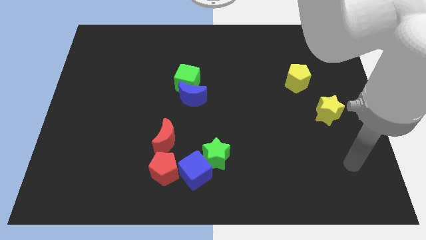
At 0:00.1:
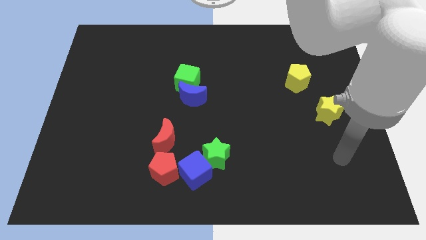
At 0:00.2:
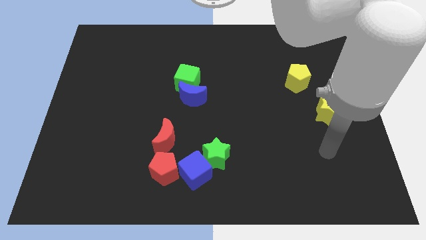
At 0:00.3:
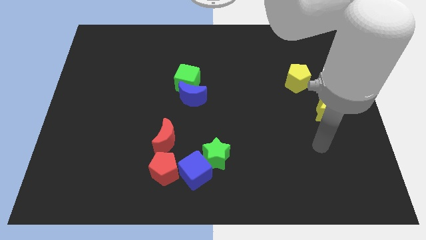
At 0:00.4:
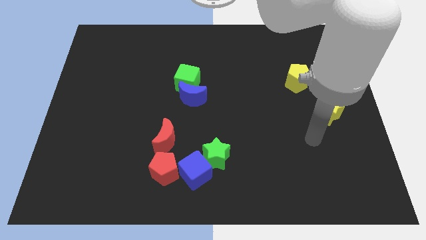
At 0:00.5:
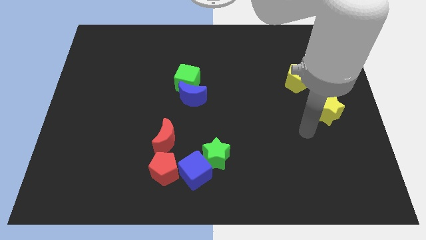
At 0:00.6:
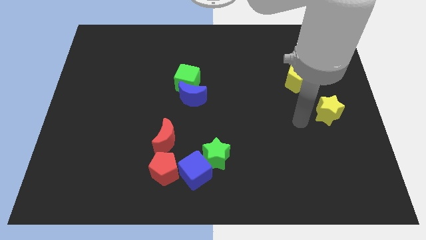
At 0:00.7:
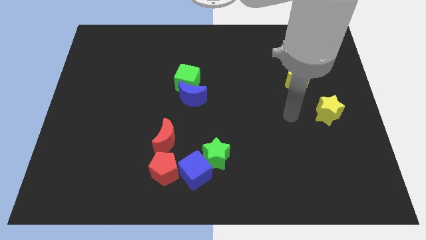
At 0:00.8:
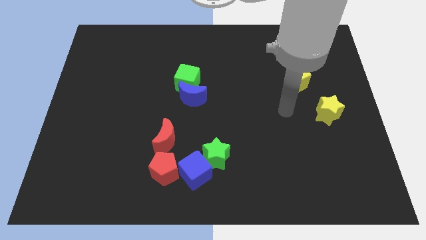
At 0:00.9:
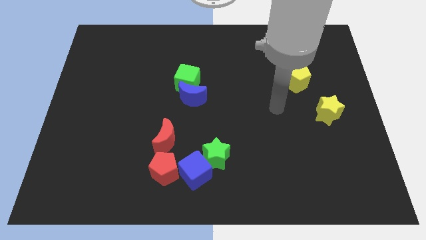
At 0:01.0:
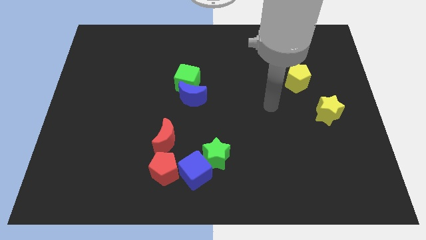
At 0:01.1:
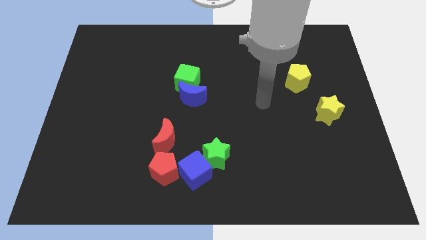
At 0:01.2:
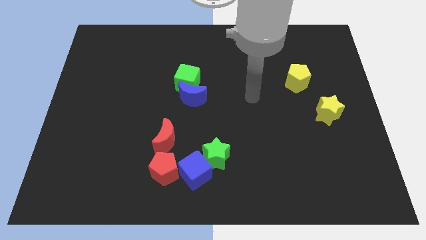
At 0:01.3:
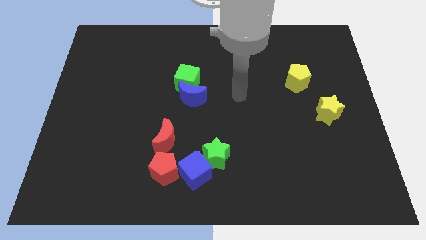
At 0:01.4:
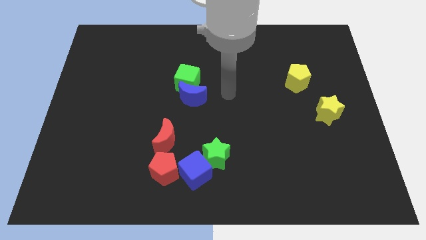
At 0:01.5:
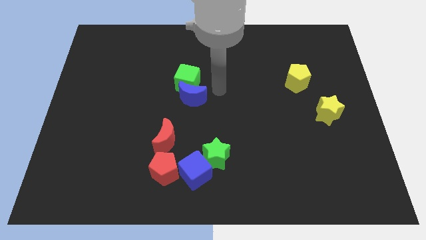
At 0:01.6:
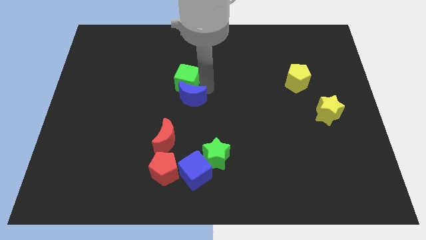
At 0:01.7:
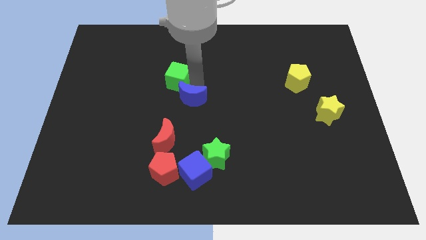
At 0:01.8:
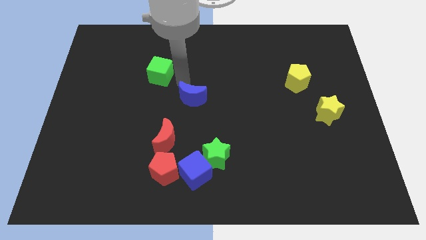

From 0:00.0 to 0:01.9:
pull the blue moon apart from the green cube

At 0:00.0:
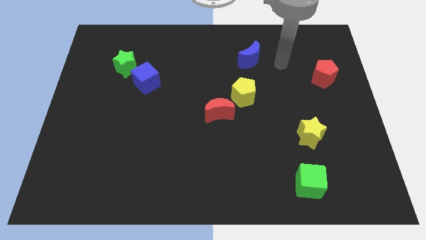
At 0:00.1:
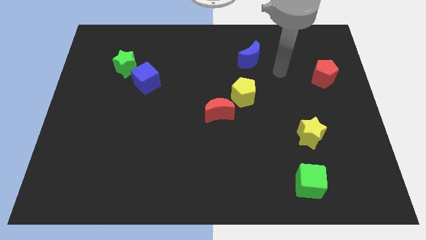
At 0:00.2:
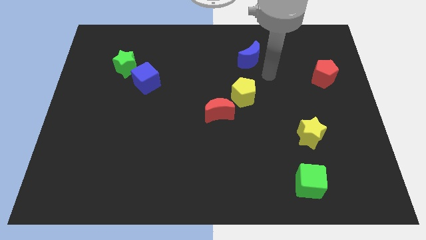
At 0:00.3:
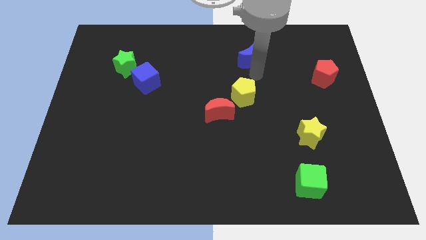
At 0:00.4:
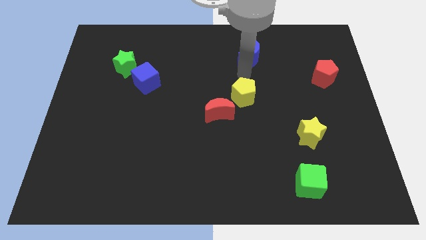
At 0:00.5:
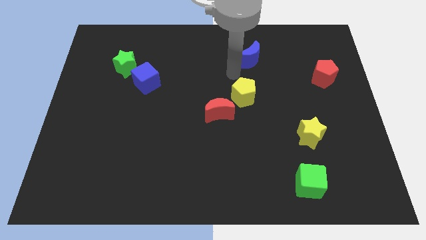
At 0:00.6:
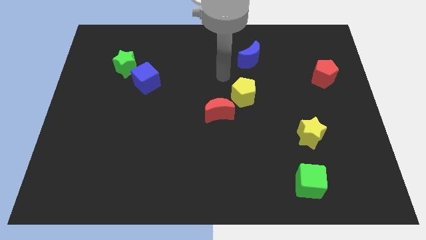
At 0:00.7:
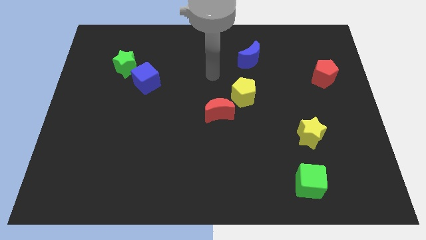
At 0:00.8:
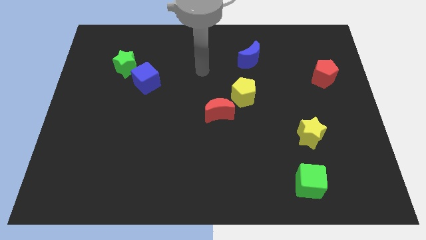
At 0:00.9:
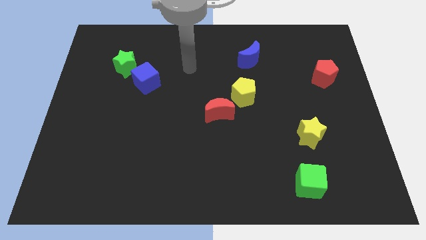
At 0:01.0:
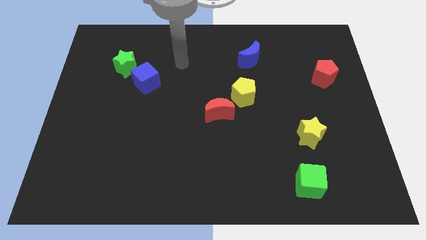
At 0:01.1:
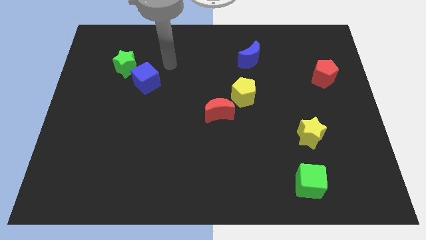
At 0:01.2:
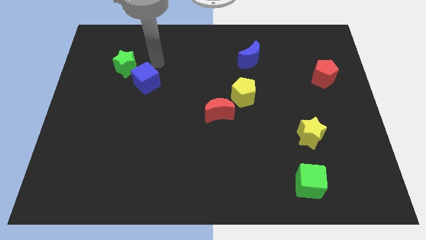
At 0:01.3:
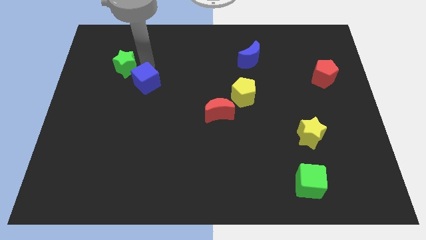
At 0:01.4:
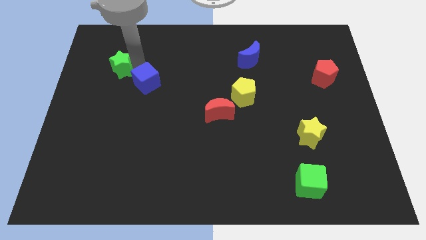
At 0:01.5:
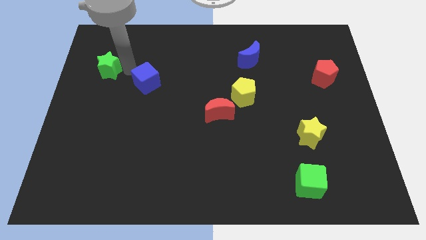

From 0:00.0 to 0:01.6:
move the blue cube away from the green star

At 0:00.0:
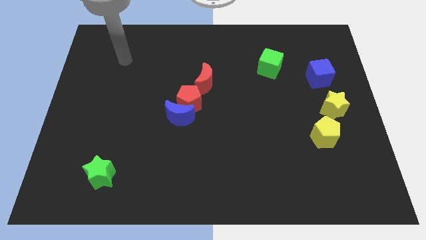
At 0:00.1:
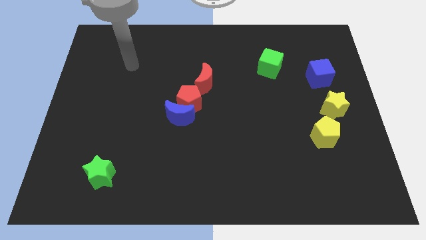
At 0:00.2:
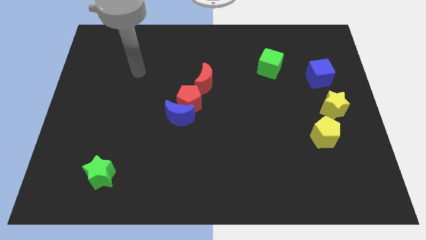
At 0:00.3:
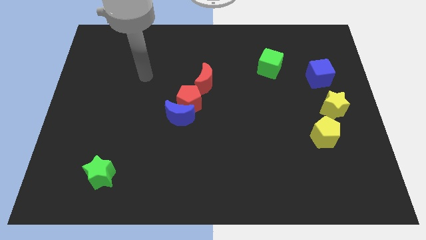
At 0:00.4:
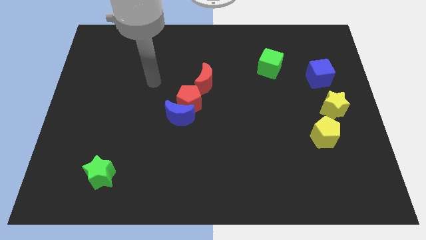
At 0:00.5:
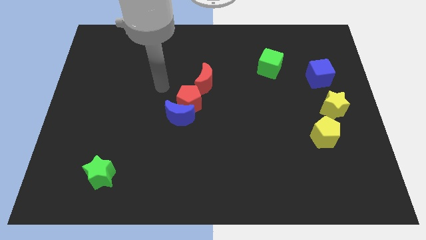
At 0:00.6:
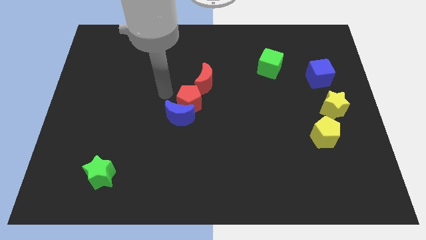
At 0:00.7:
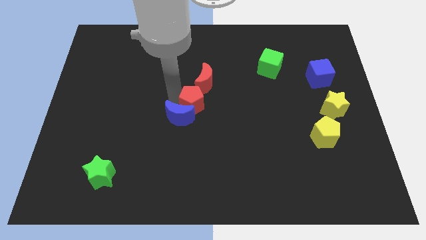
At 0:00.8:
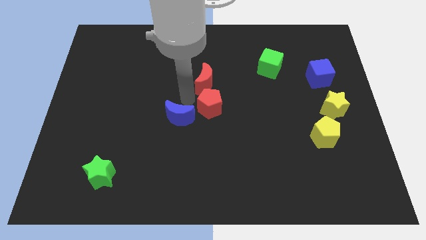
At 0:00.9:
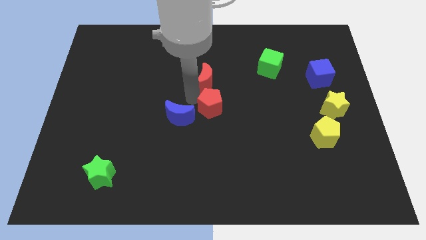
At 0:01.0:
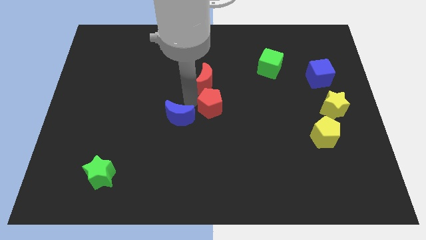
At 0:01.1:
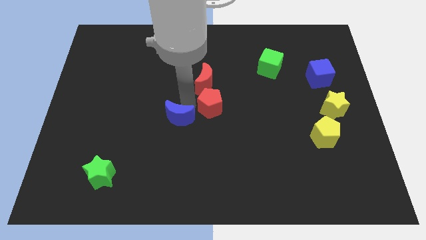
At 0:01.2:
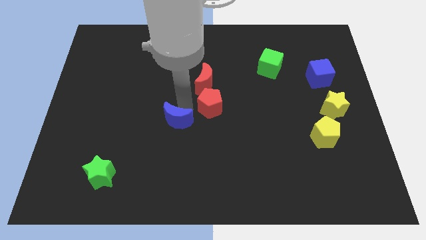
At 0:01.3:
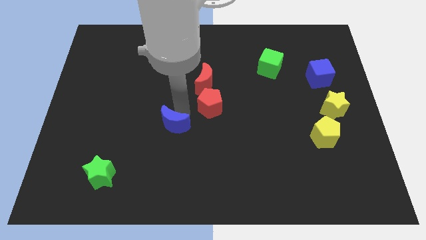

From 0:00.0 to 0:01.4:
pull the blue moon apart from the red pentagon

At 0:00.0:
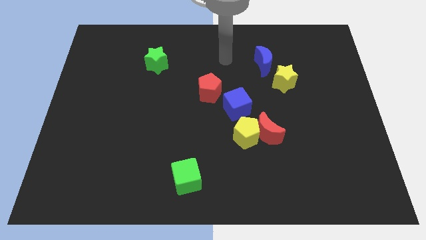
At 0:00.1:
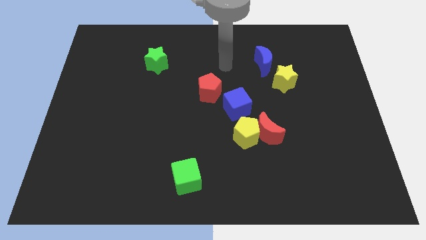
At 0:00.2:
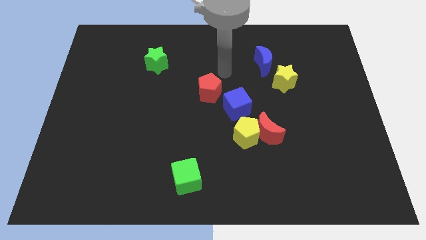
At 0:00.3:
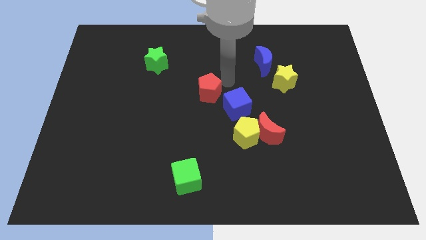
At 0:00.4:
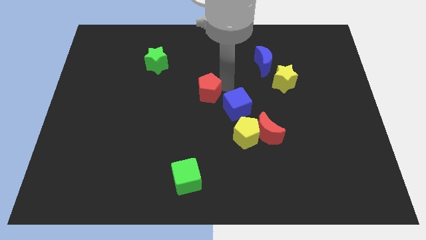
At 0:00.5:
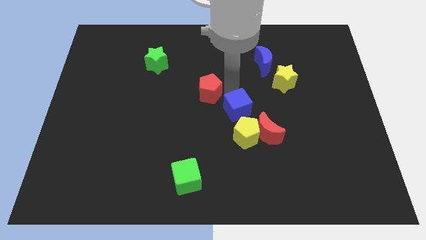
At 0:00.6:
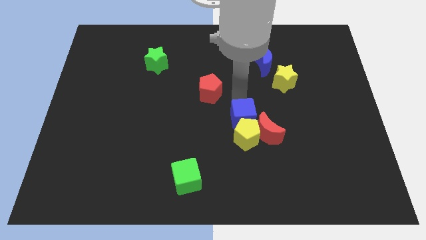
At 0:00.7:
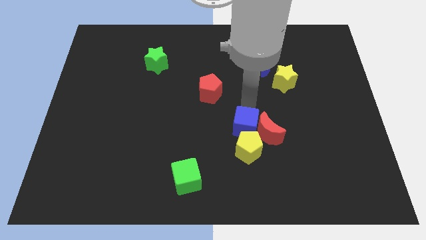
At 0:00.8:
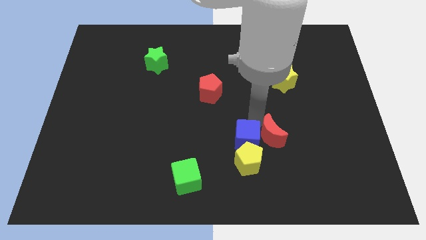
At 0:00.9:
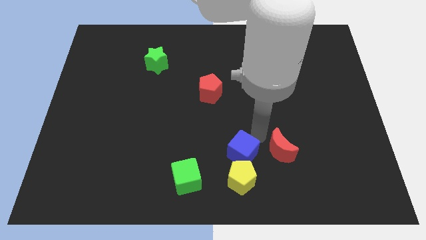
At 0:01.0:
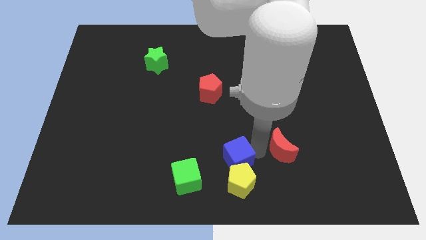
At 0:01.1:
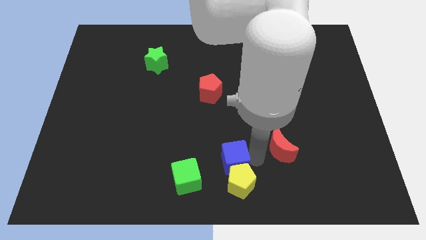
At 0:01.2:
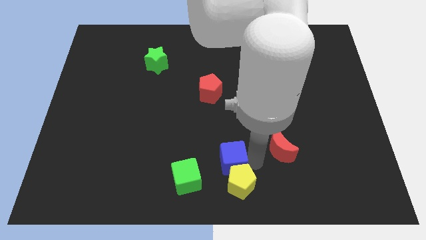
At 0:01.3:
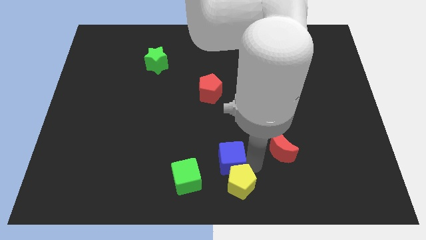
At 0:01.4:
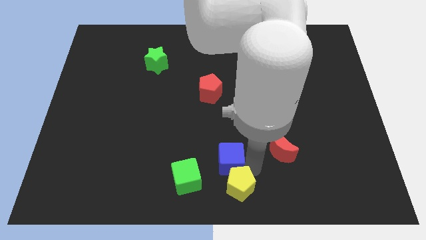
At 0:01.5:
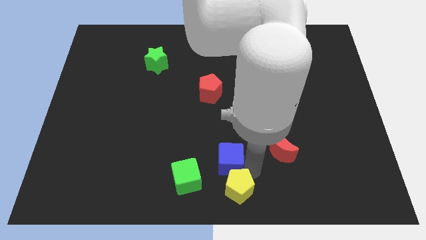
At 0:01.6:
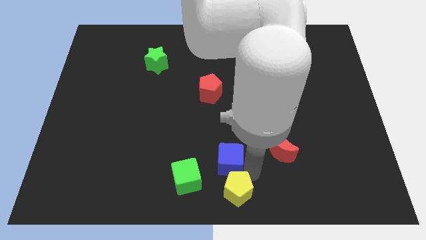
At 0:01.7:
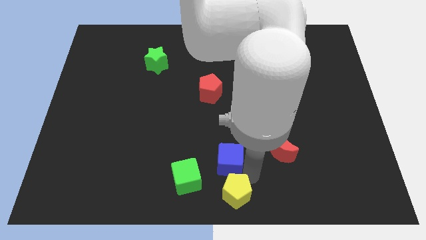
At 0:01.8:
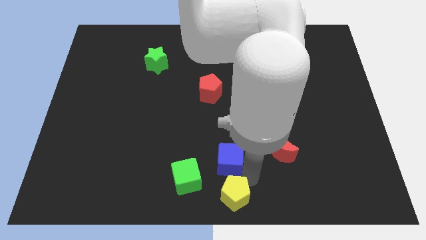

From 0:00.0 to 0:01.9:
pull the yellow pentagon apart from the red moon and blue cube

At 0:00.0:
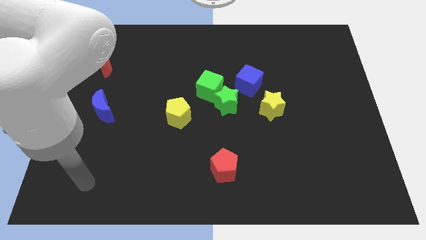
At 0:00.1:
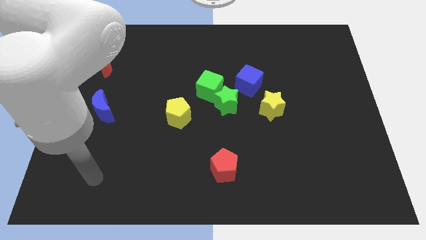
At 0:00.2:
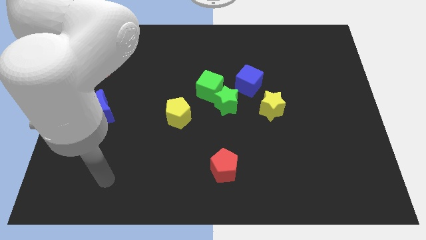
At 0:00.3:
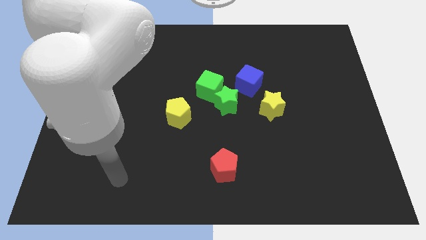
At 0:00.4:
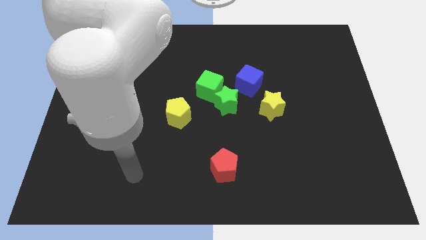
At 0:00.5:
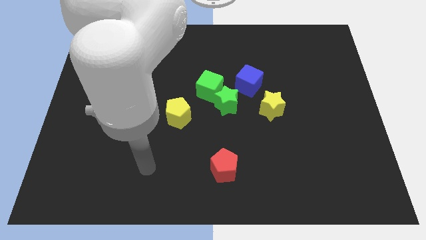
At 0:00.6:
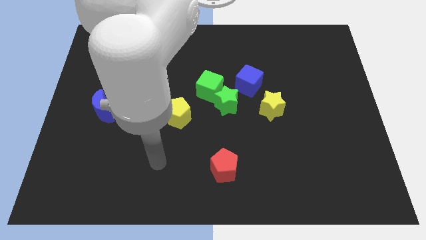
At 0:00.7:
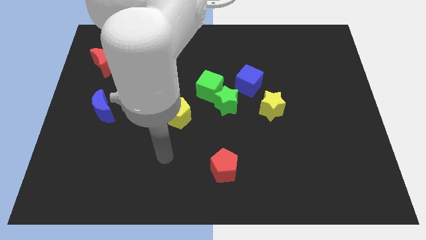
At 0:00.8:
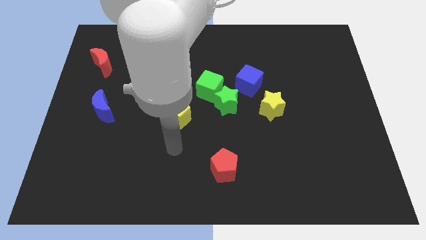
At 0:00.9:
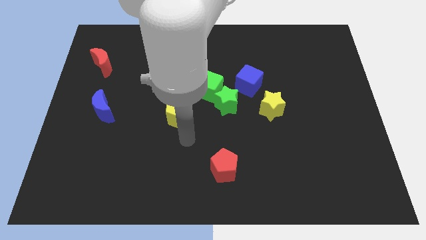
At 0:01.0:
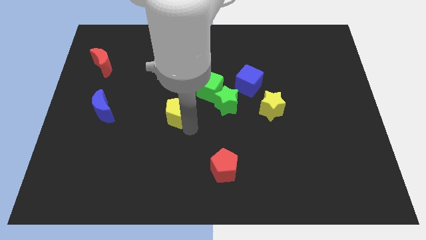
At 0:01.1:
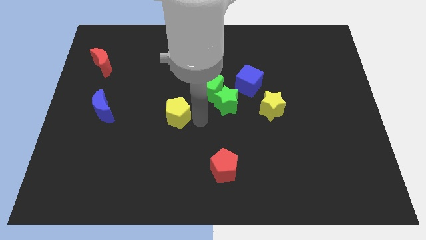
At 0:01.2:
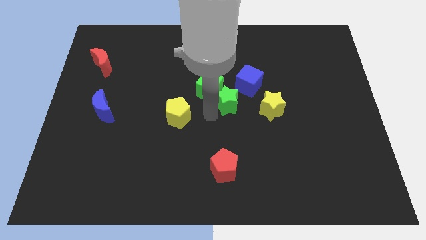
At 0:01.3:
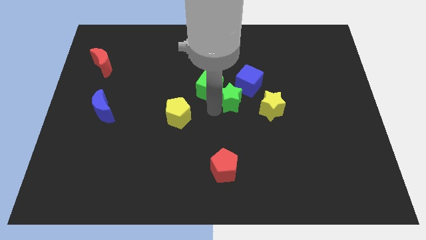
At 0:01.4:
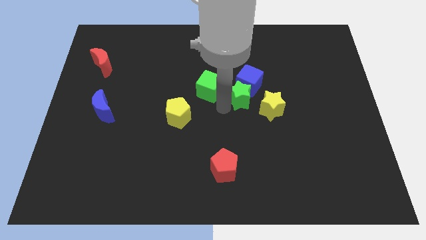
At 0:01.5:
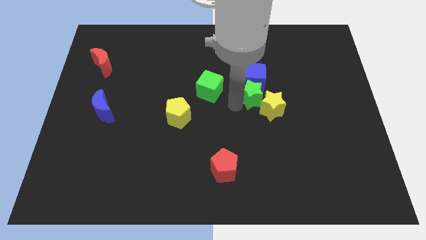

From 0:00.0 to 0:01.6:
move the green cube away from the green star and blue cube

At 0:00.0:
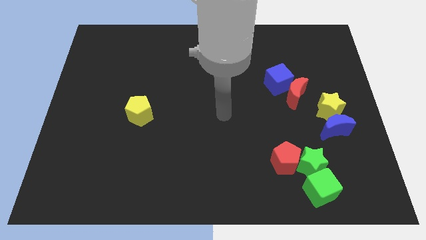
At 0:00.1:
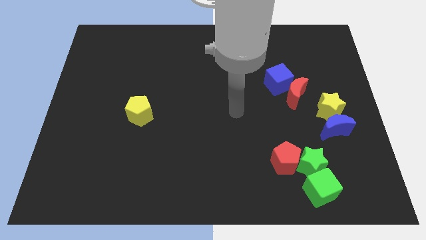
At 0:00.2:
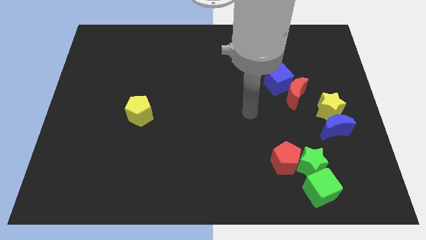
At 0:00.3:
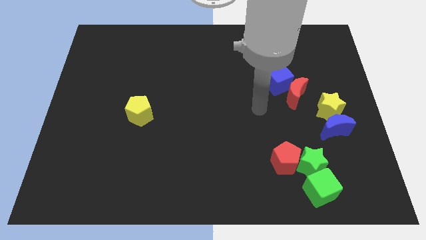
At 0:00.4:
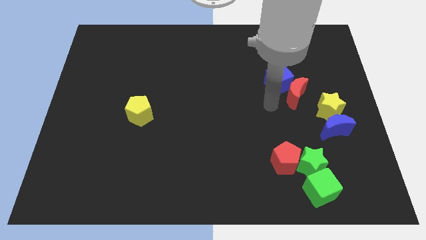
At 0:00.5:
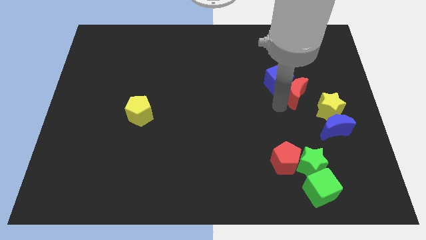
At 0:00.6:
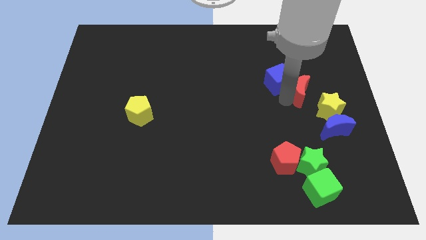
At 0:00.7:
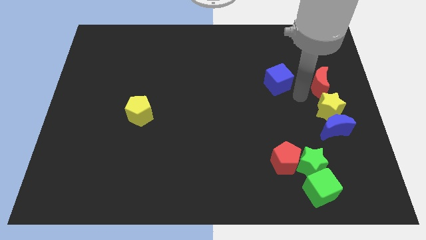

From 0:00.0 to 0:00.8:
move the blue cube away from the red moon

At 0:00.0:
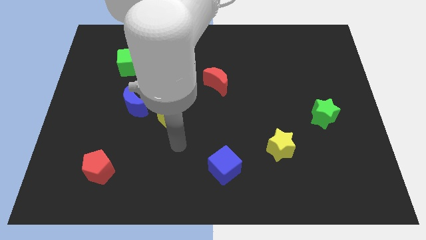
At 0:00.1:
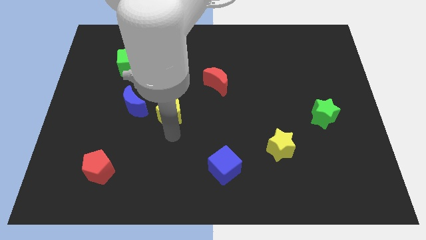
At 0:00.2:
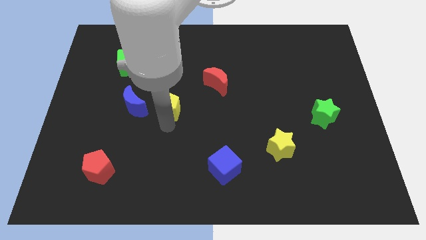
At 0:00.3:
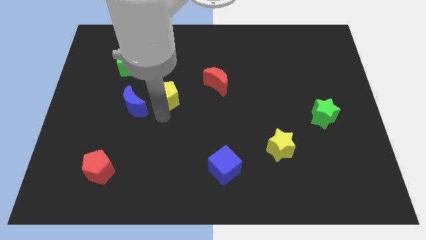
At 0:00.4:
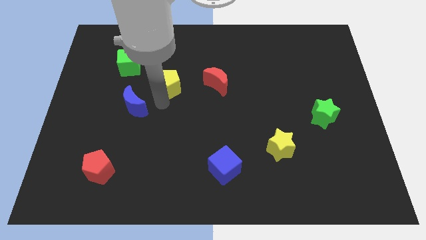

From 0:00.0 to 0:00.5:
separate the blue moon from the yellow pentagon
